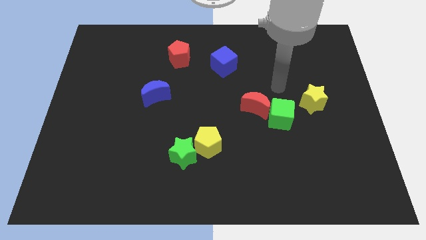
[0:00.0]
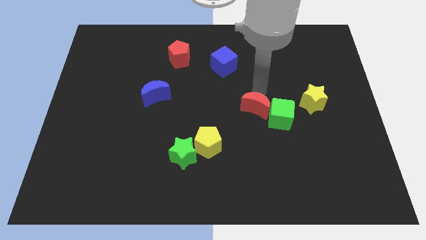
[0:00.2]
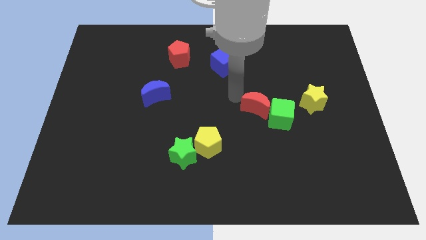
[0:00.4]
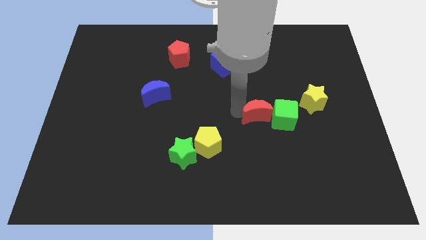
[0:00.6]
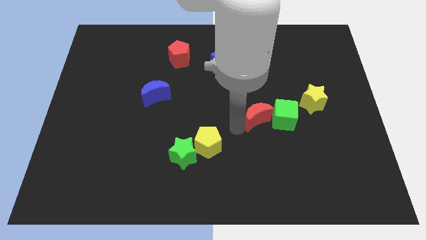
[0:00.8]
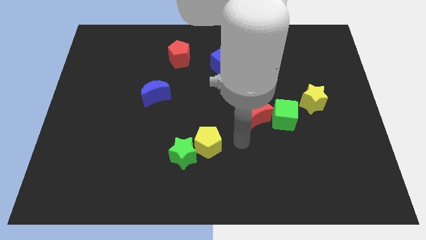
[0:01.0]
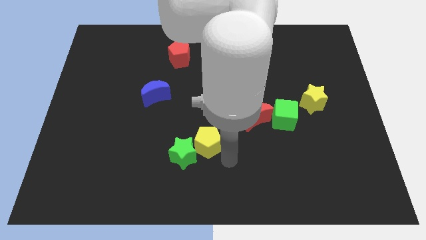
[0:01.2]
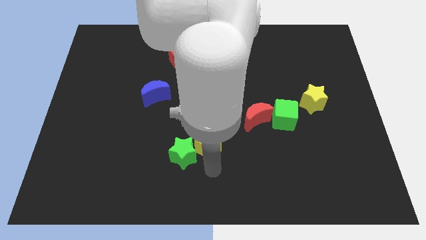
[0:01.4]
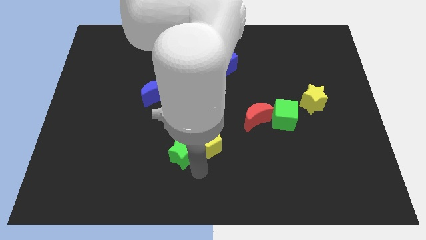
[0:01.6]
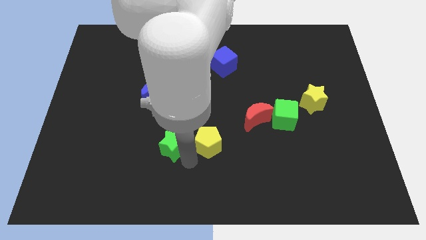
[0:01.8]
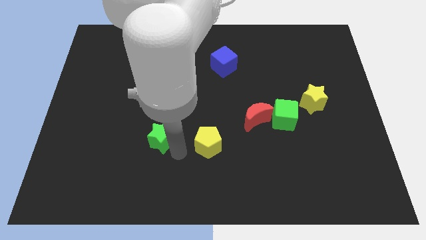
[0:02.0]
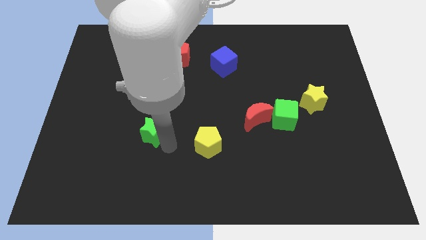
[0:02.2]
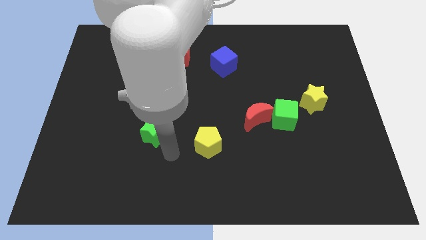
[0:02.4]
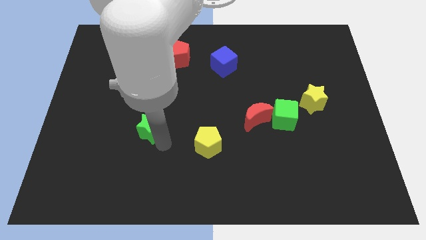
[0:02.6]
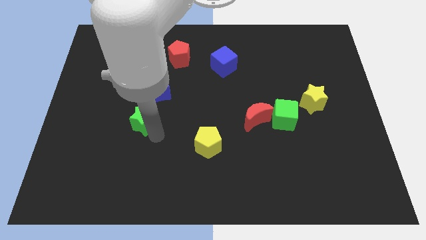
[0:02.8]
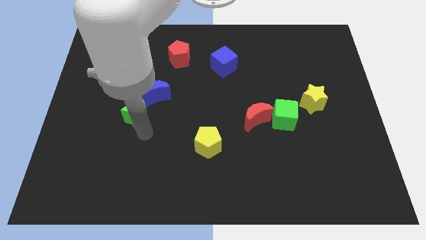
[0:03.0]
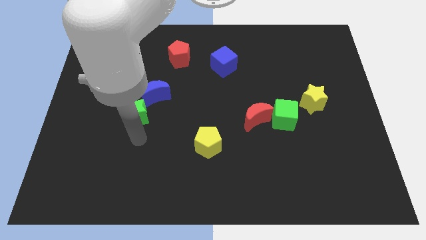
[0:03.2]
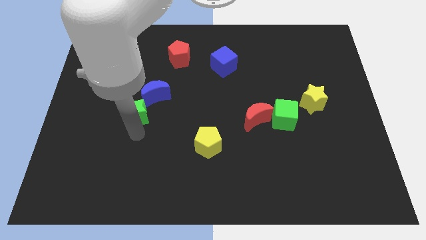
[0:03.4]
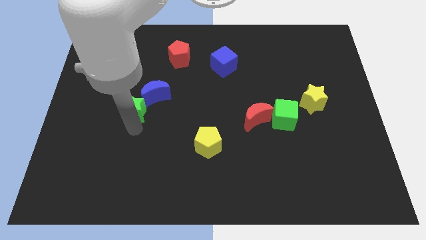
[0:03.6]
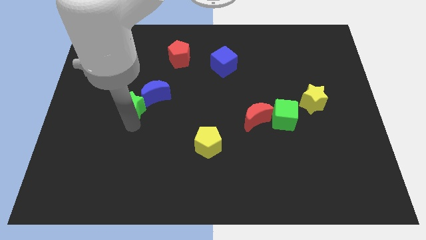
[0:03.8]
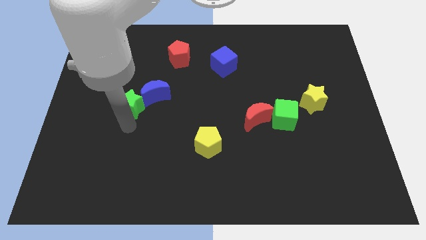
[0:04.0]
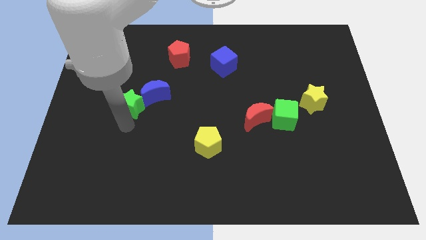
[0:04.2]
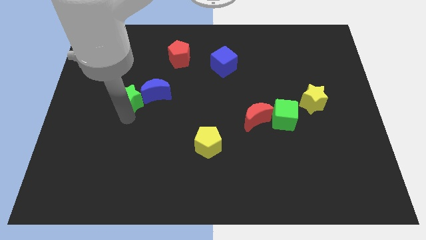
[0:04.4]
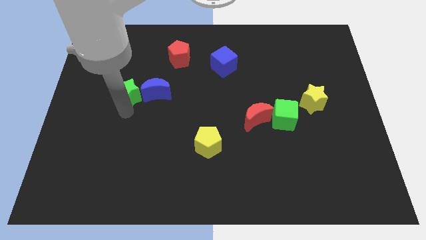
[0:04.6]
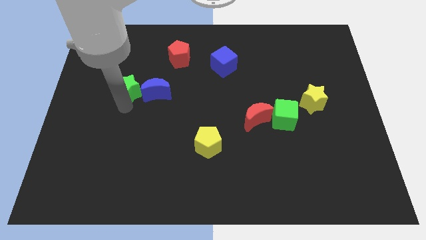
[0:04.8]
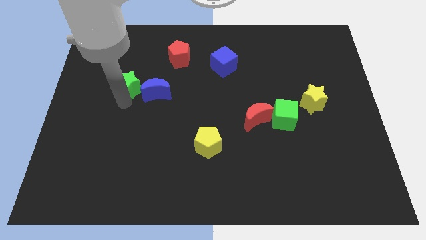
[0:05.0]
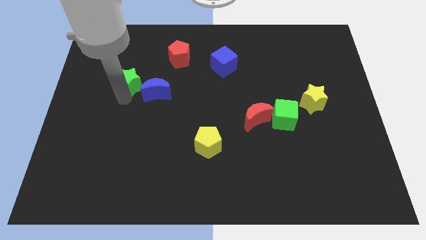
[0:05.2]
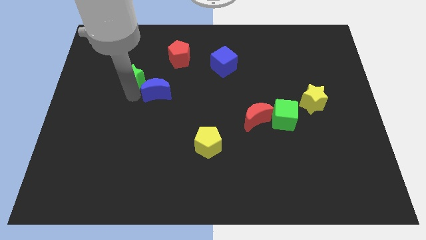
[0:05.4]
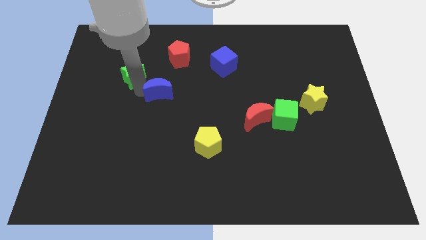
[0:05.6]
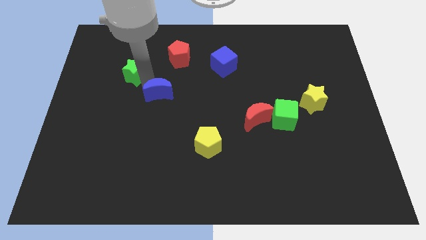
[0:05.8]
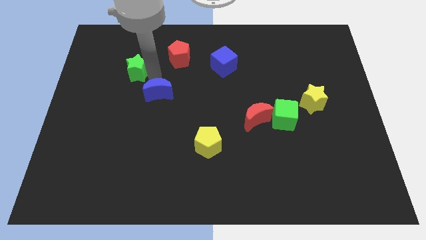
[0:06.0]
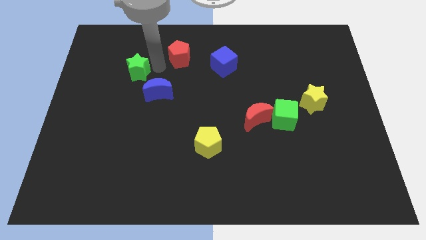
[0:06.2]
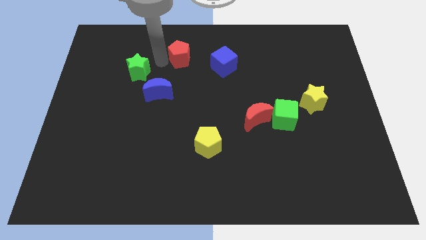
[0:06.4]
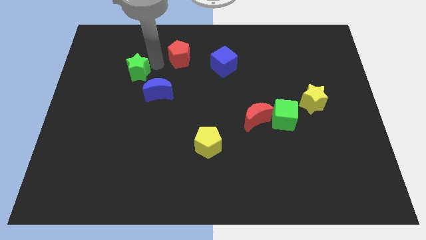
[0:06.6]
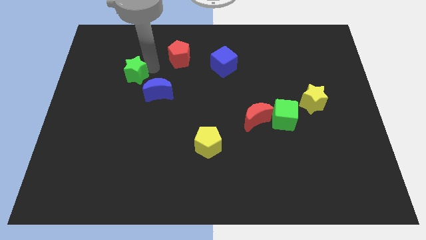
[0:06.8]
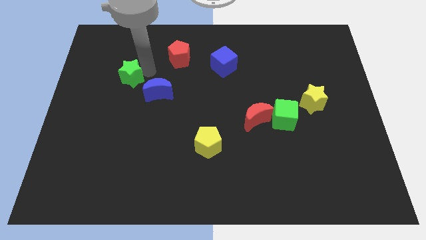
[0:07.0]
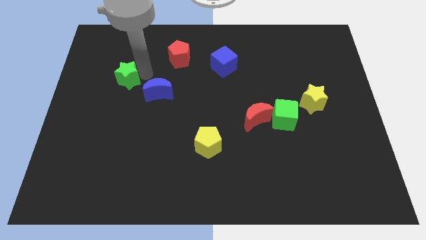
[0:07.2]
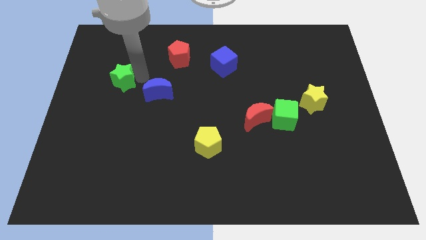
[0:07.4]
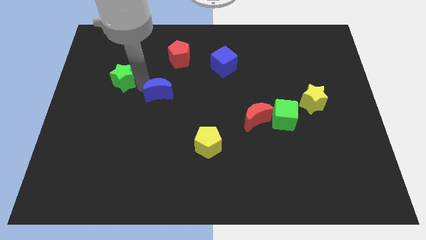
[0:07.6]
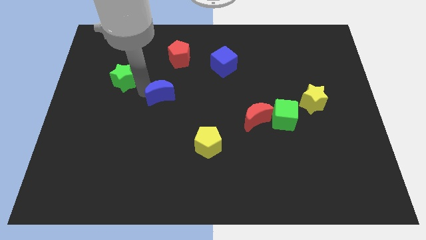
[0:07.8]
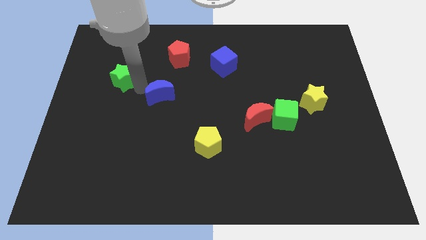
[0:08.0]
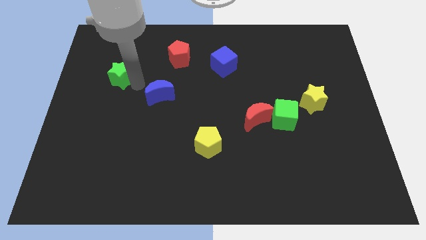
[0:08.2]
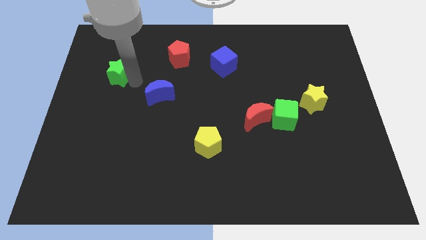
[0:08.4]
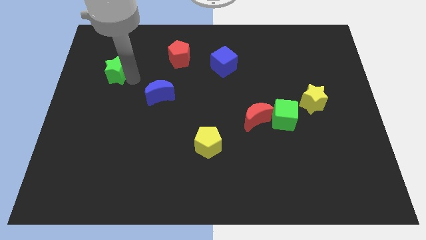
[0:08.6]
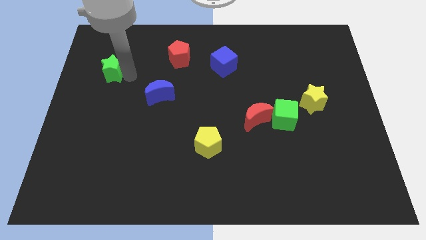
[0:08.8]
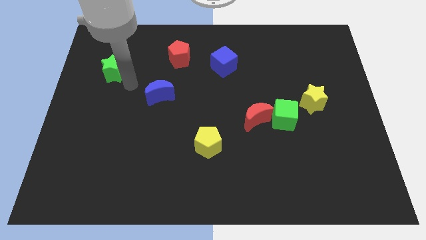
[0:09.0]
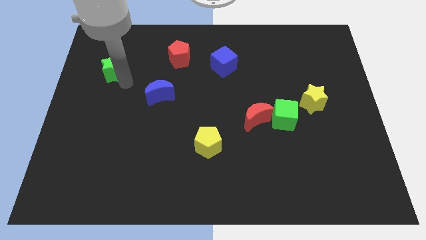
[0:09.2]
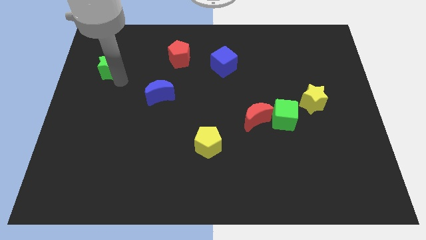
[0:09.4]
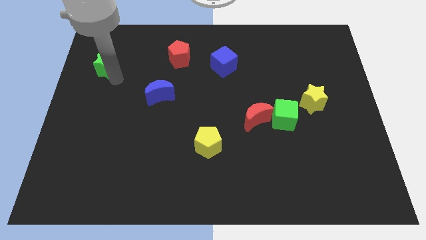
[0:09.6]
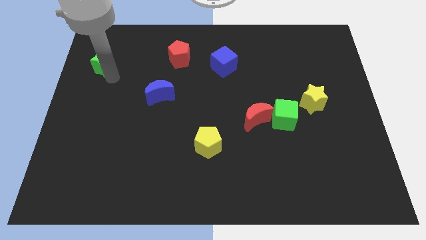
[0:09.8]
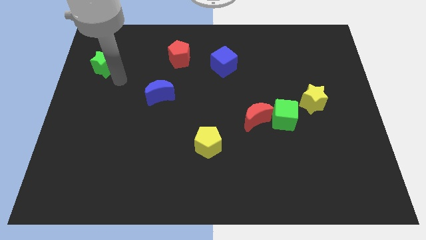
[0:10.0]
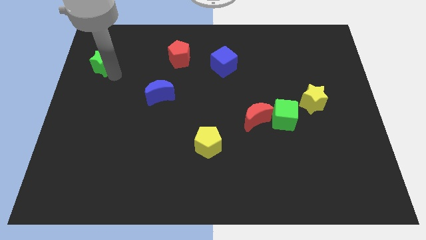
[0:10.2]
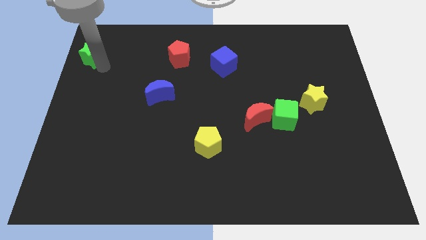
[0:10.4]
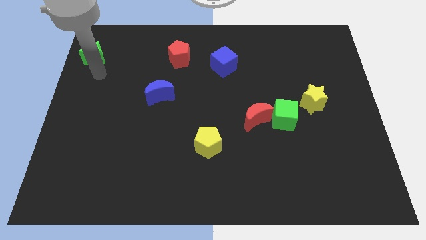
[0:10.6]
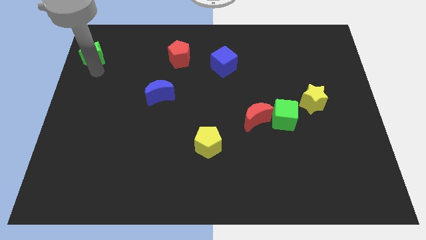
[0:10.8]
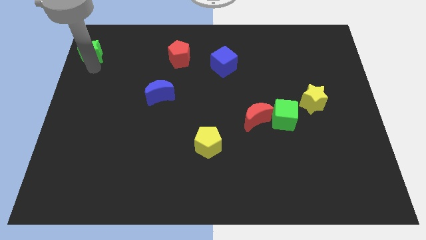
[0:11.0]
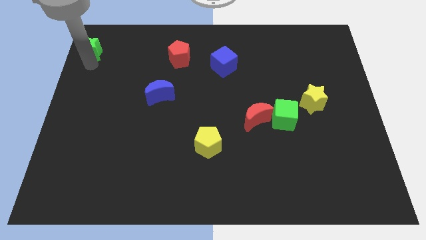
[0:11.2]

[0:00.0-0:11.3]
put the green star to the upper left corner

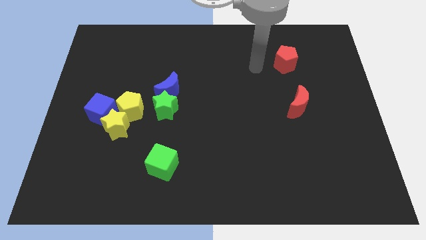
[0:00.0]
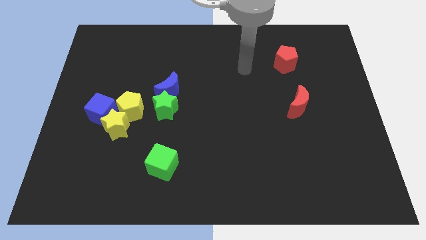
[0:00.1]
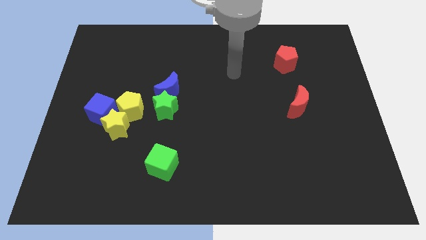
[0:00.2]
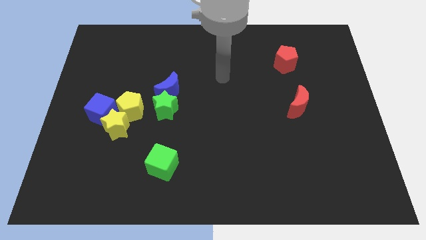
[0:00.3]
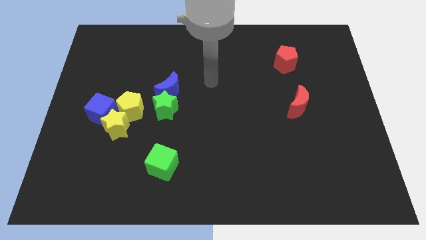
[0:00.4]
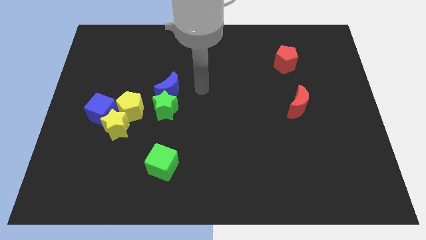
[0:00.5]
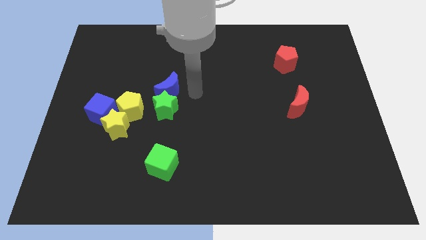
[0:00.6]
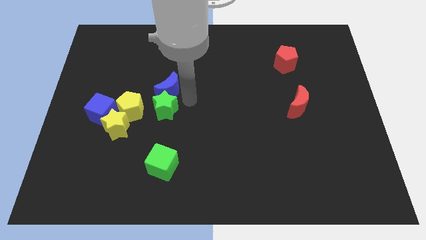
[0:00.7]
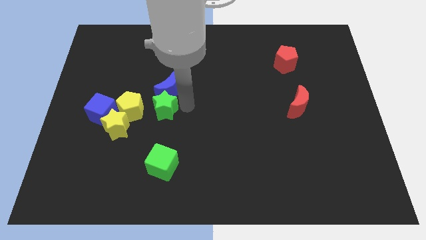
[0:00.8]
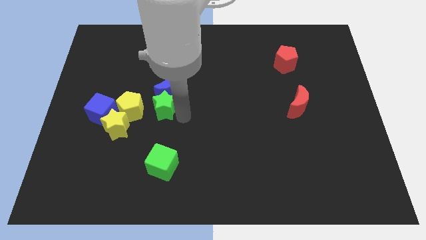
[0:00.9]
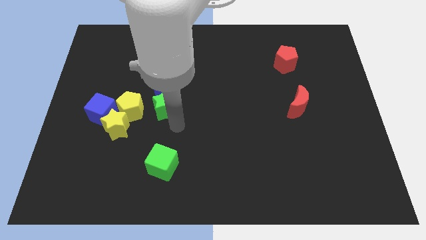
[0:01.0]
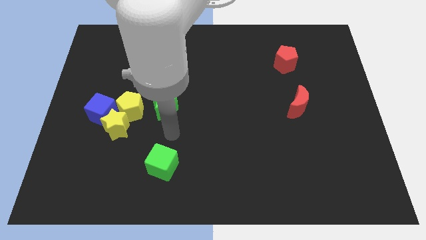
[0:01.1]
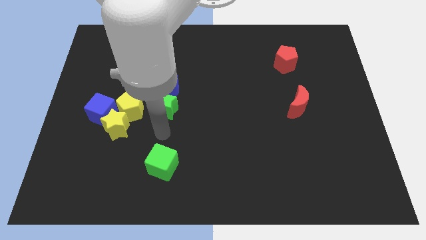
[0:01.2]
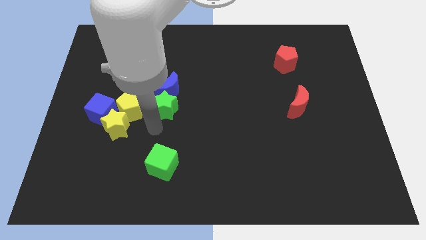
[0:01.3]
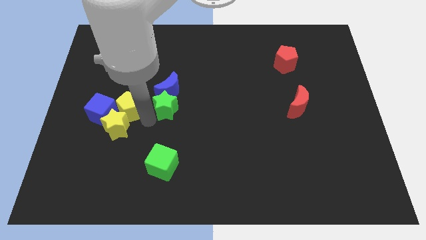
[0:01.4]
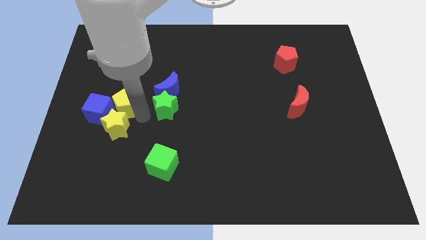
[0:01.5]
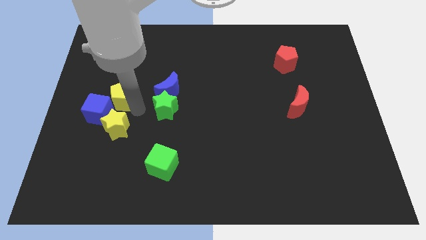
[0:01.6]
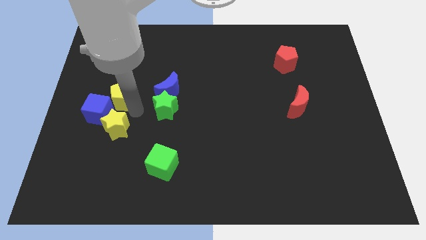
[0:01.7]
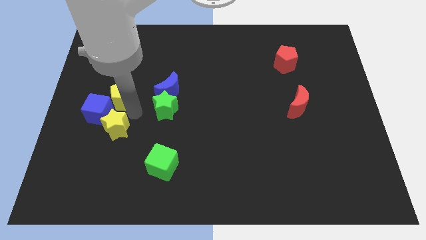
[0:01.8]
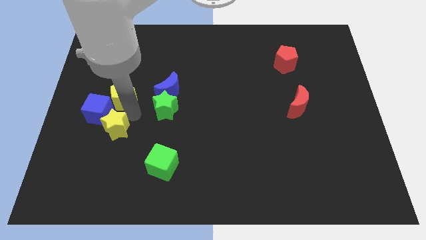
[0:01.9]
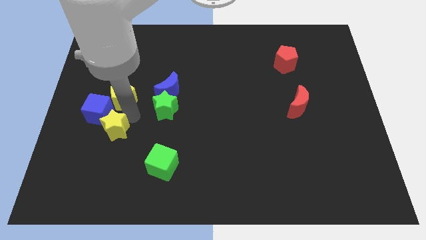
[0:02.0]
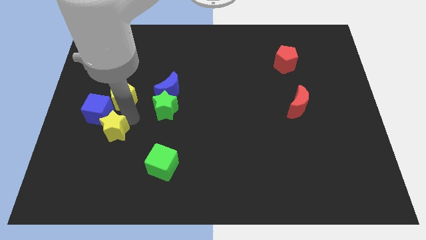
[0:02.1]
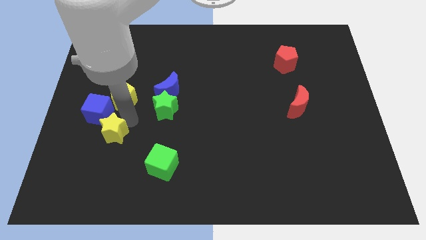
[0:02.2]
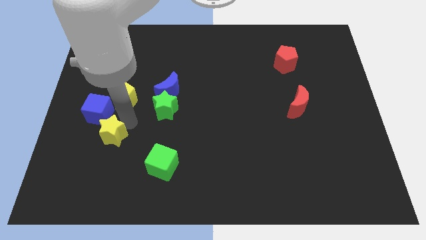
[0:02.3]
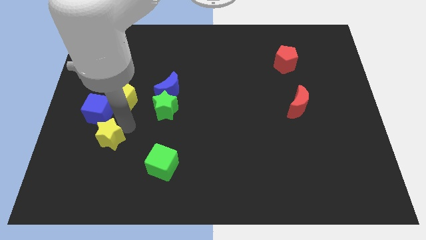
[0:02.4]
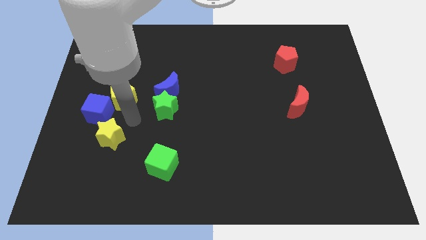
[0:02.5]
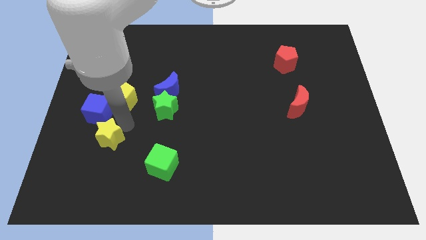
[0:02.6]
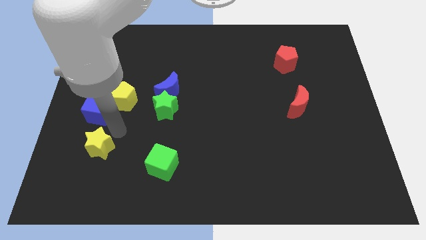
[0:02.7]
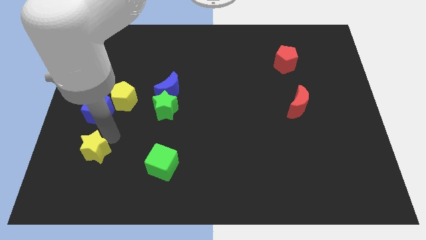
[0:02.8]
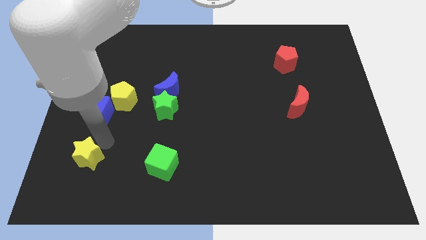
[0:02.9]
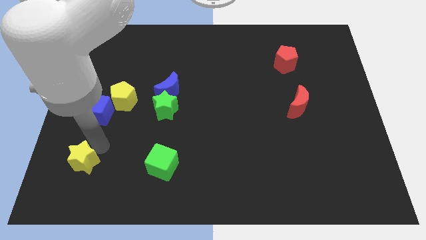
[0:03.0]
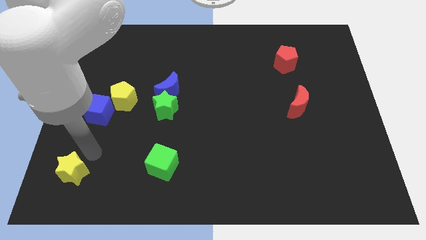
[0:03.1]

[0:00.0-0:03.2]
push the yellow star to the bottom left
